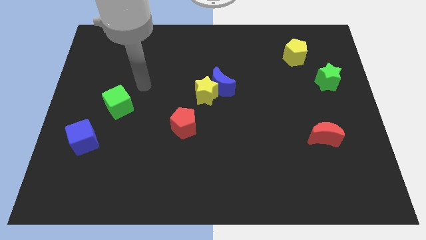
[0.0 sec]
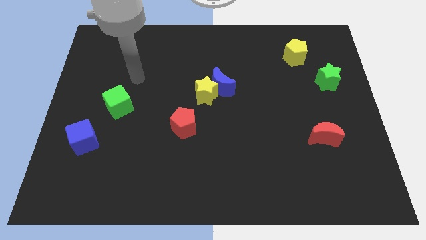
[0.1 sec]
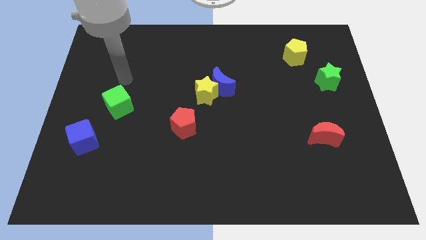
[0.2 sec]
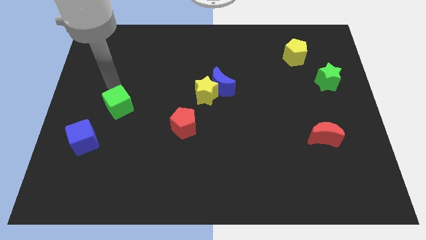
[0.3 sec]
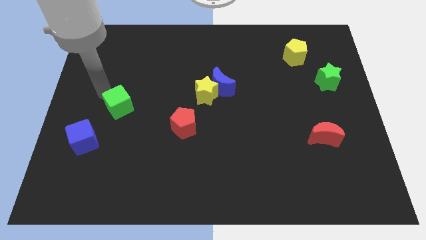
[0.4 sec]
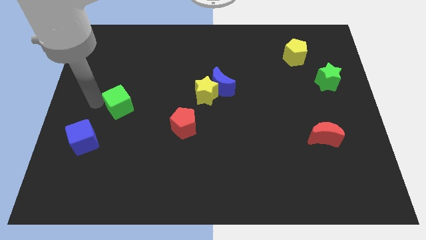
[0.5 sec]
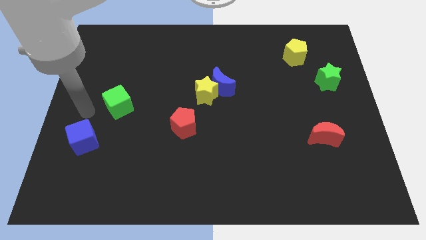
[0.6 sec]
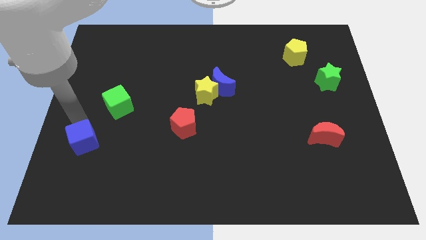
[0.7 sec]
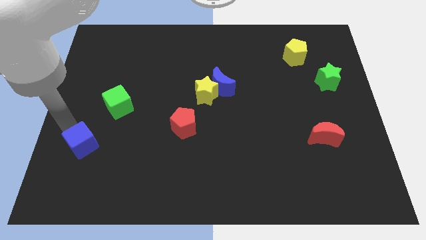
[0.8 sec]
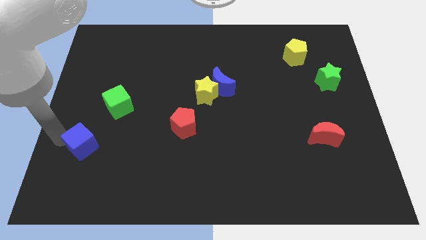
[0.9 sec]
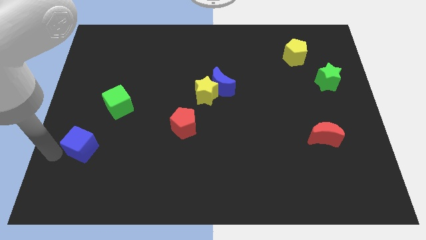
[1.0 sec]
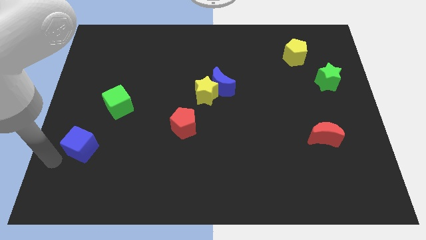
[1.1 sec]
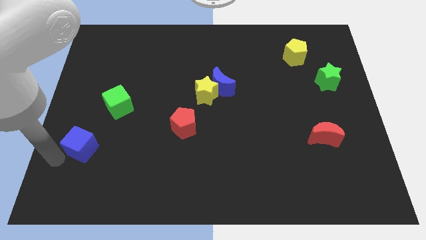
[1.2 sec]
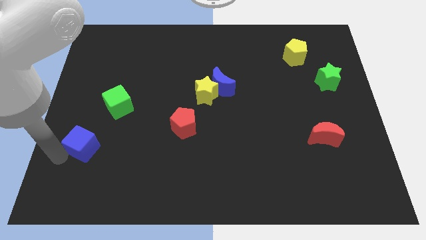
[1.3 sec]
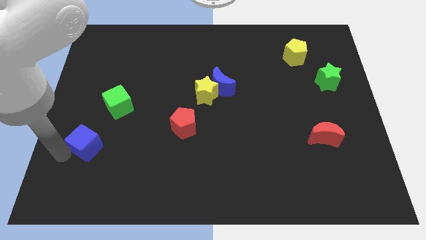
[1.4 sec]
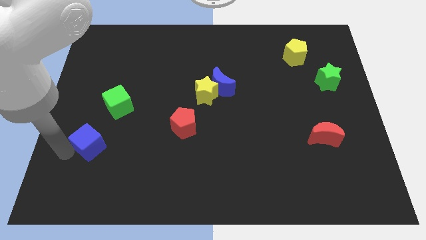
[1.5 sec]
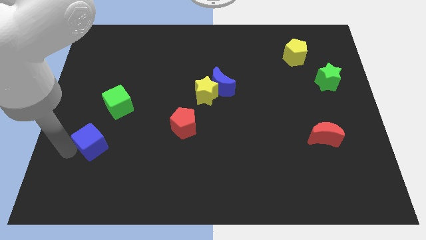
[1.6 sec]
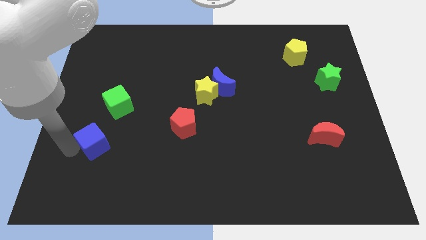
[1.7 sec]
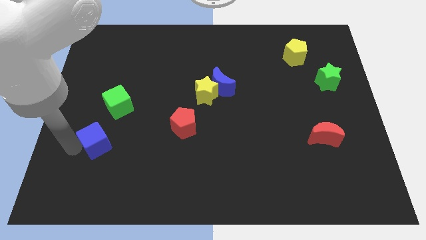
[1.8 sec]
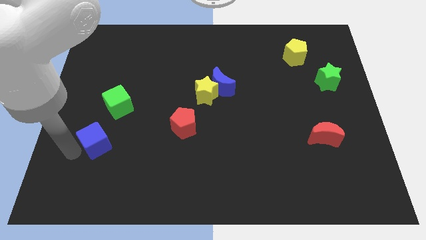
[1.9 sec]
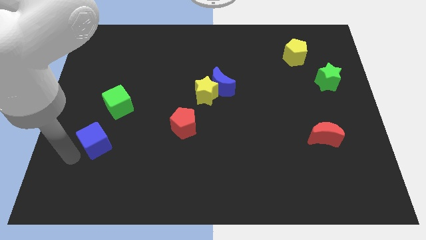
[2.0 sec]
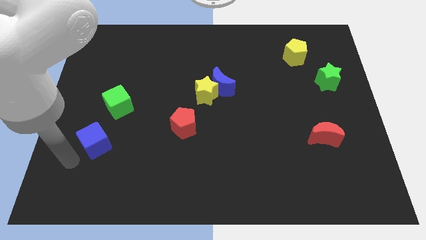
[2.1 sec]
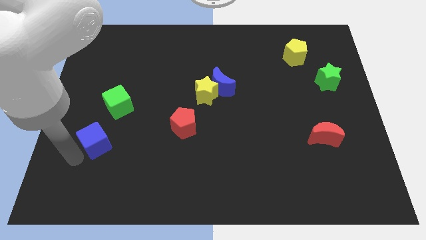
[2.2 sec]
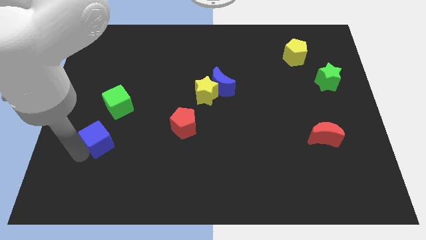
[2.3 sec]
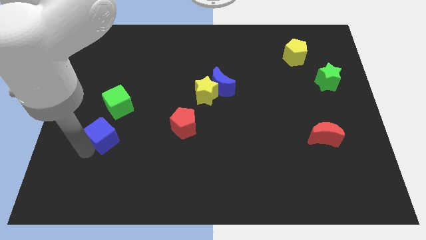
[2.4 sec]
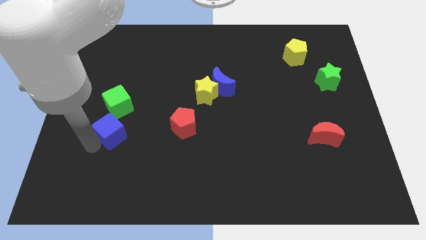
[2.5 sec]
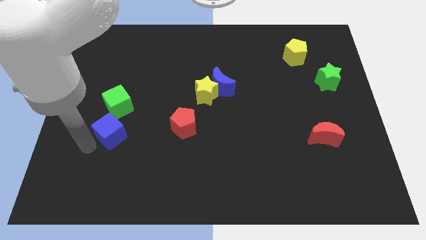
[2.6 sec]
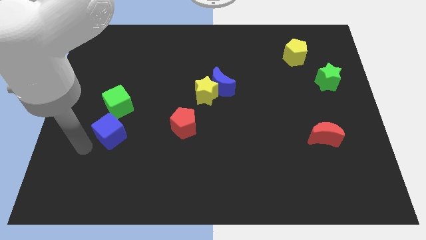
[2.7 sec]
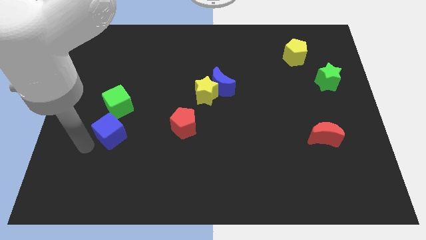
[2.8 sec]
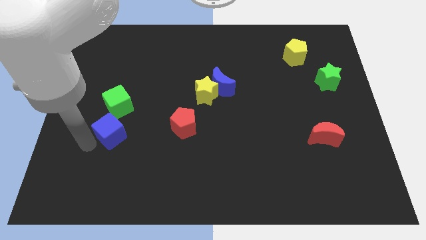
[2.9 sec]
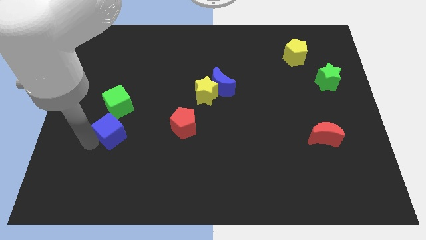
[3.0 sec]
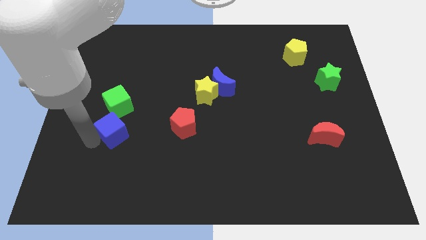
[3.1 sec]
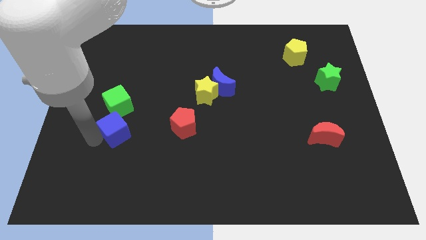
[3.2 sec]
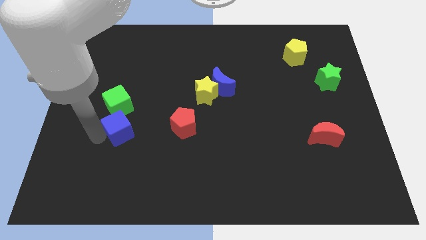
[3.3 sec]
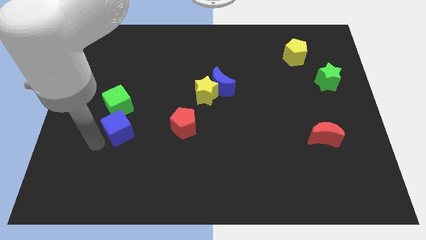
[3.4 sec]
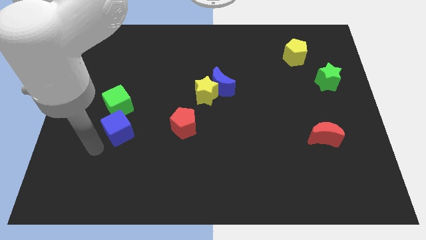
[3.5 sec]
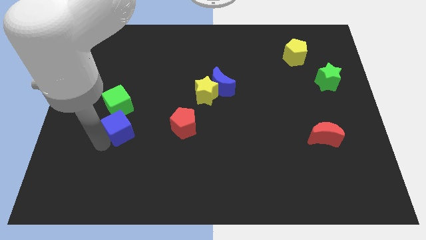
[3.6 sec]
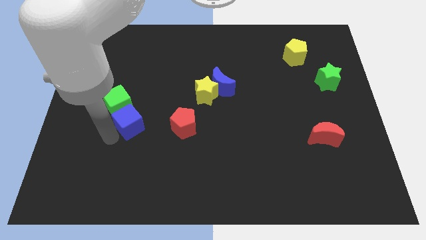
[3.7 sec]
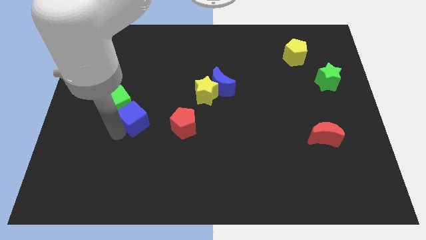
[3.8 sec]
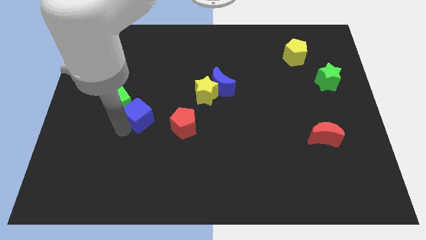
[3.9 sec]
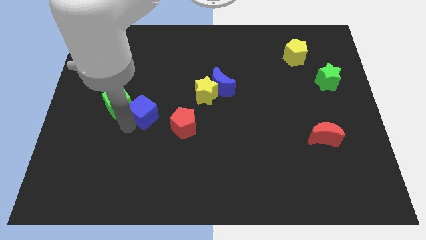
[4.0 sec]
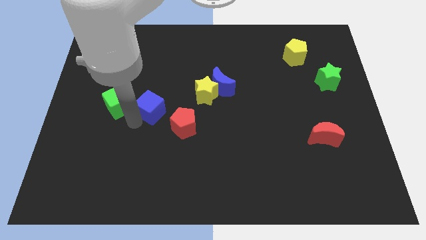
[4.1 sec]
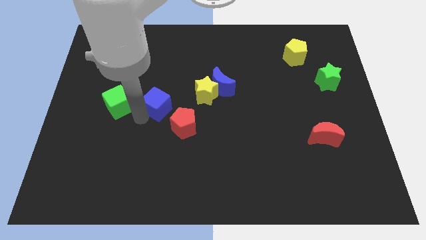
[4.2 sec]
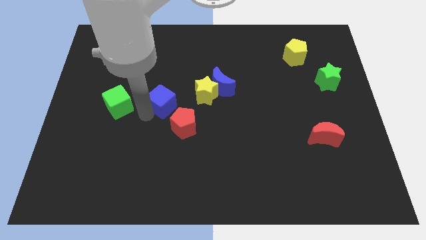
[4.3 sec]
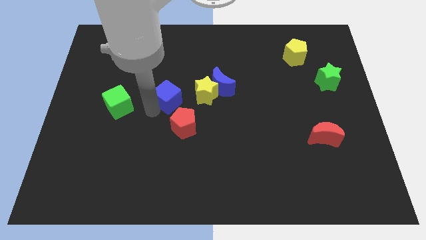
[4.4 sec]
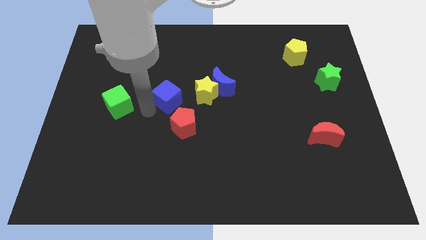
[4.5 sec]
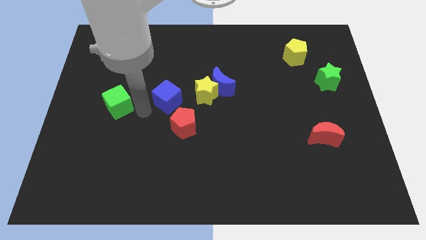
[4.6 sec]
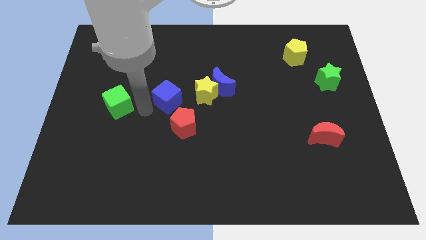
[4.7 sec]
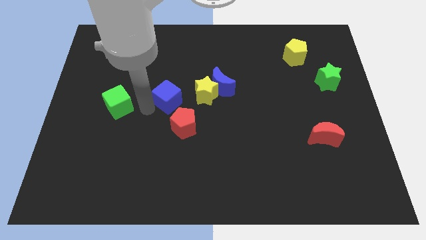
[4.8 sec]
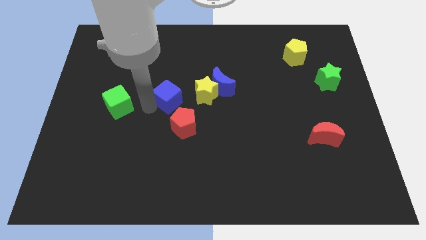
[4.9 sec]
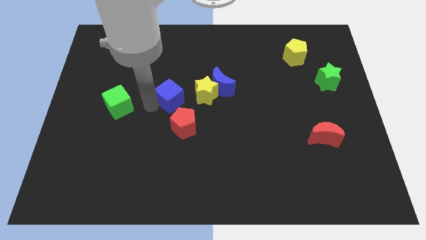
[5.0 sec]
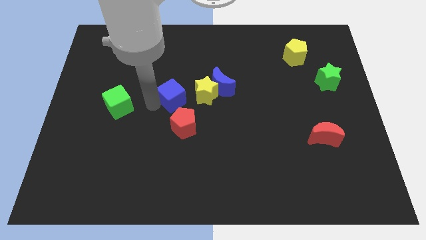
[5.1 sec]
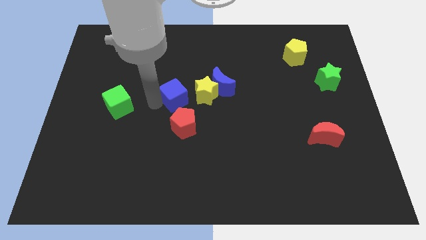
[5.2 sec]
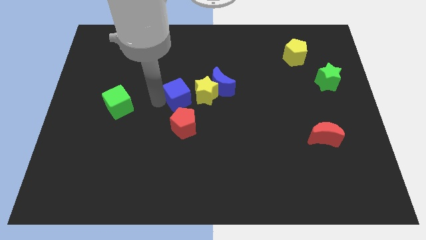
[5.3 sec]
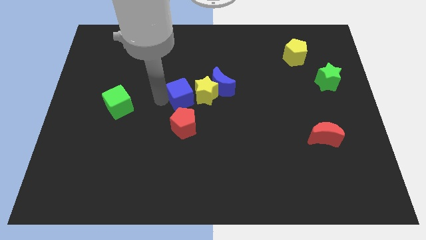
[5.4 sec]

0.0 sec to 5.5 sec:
slide the blue cube to the yellow star

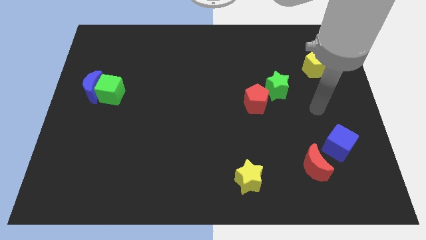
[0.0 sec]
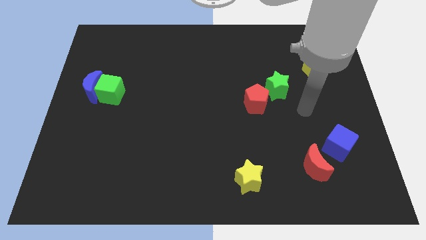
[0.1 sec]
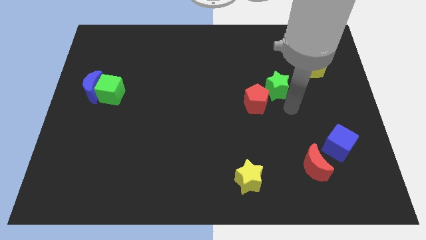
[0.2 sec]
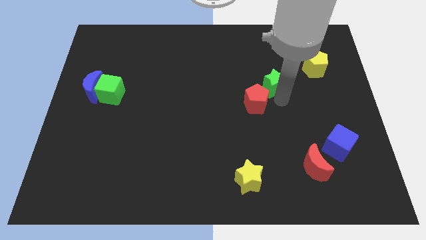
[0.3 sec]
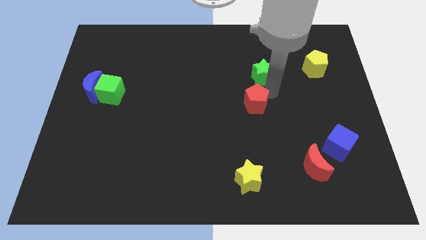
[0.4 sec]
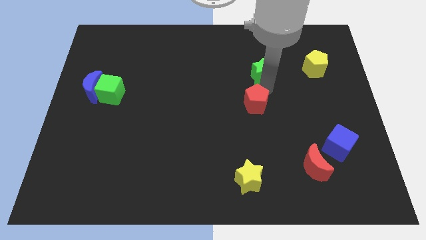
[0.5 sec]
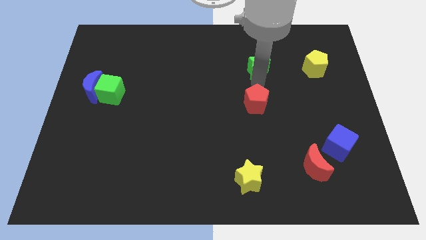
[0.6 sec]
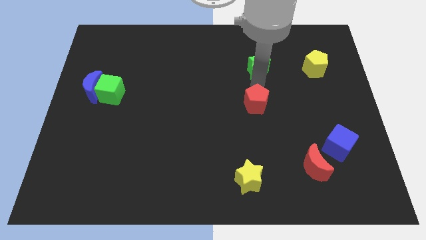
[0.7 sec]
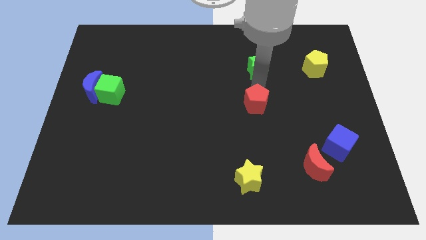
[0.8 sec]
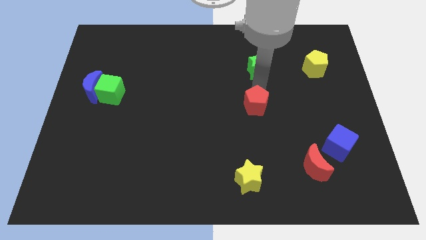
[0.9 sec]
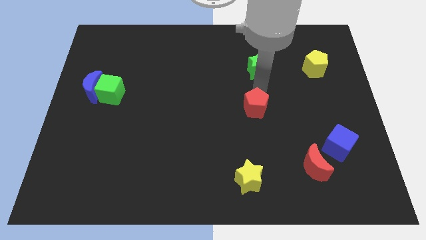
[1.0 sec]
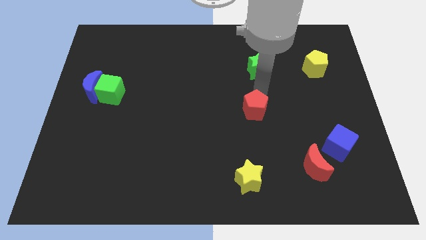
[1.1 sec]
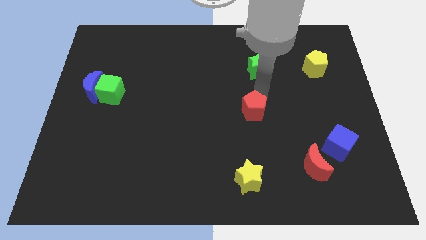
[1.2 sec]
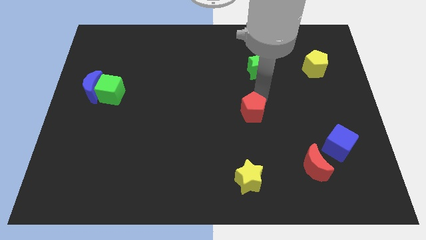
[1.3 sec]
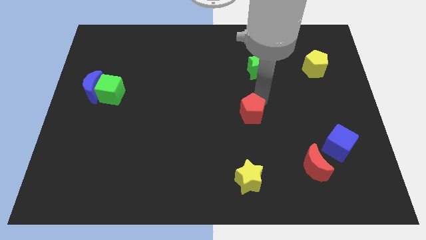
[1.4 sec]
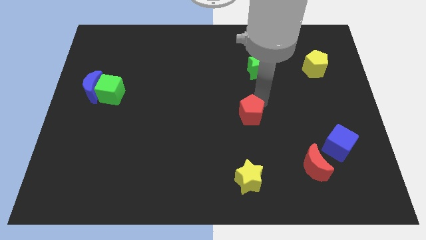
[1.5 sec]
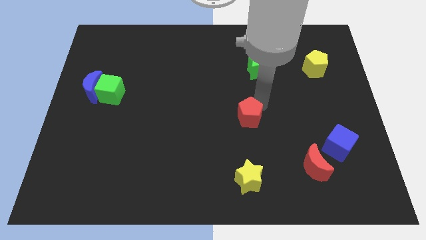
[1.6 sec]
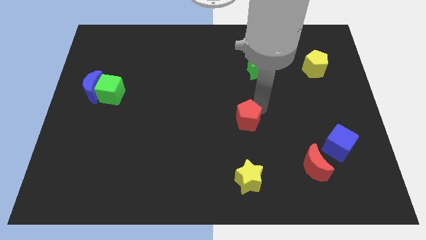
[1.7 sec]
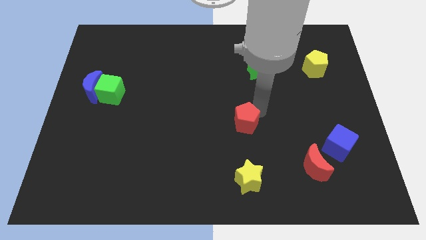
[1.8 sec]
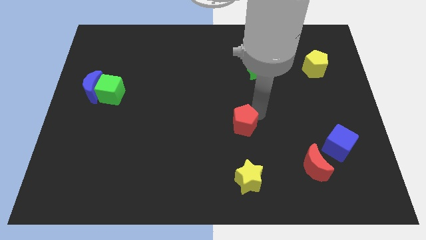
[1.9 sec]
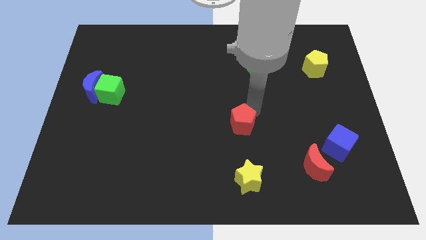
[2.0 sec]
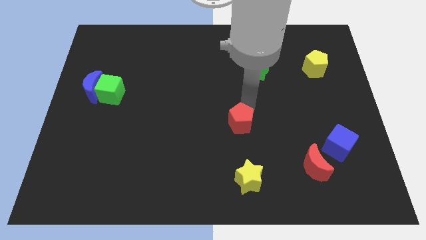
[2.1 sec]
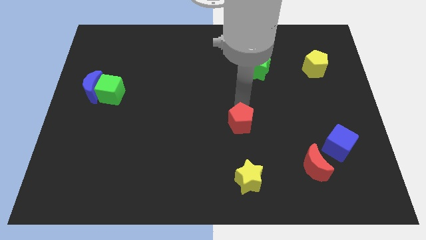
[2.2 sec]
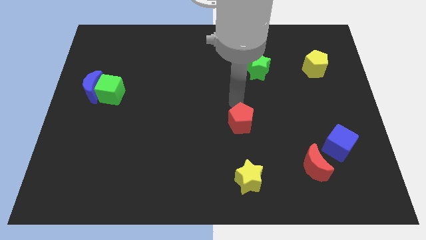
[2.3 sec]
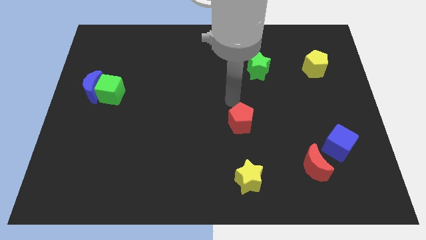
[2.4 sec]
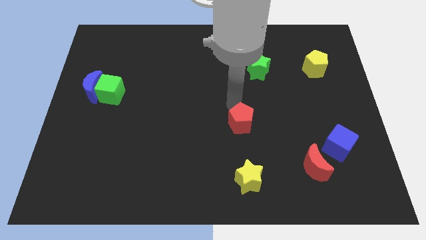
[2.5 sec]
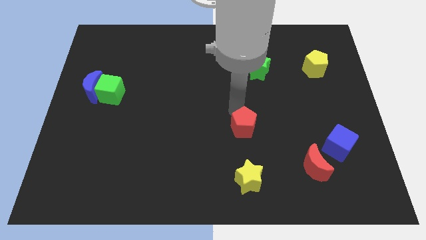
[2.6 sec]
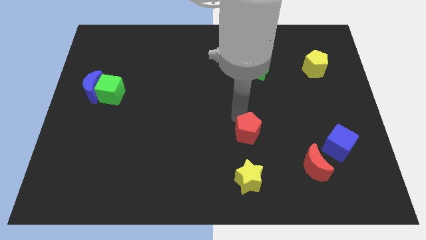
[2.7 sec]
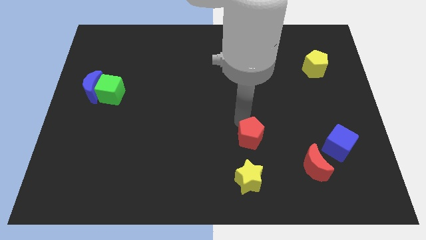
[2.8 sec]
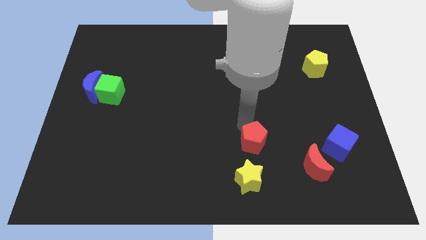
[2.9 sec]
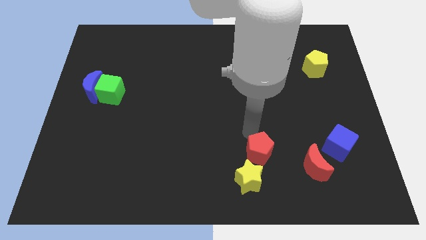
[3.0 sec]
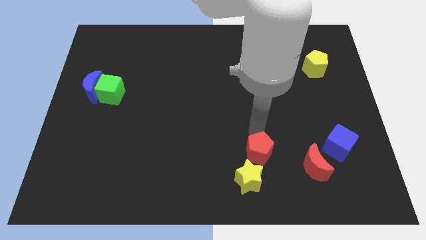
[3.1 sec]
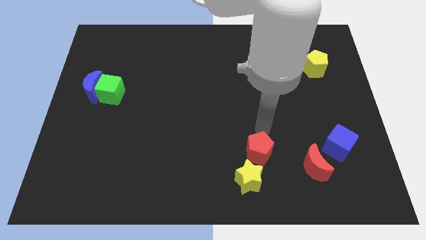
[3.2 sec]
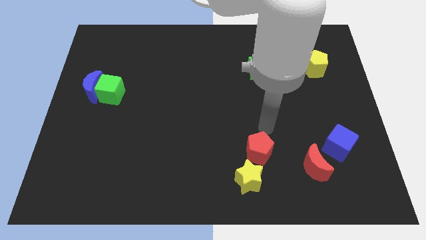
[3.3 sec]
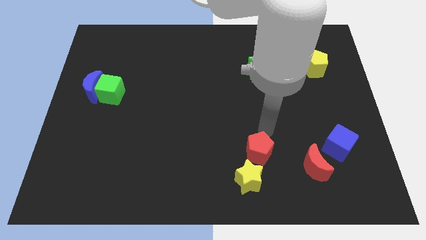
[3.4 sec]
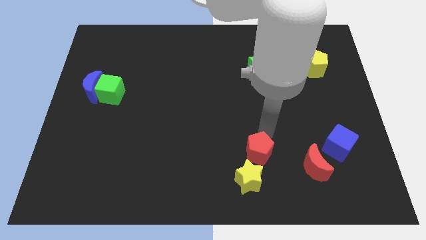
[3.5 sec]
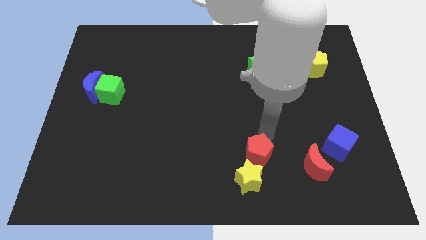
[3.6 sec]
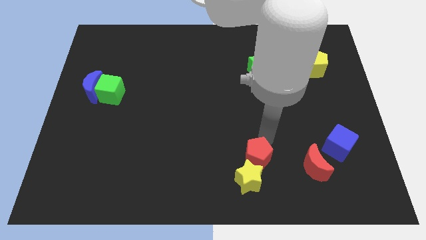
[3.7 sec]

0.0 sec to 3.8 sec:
put the red pentagon next to the yellow star
